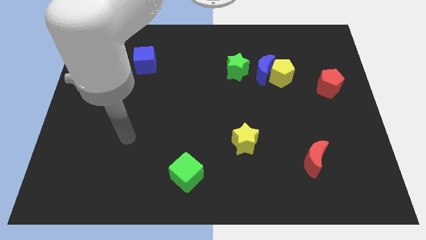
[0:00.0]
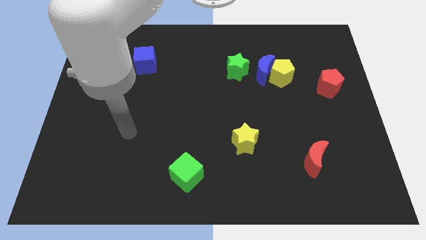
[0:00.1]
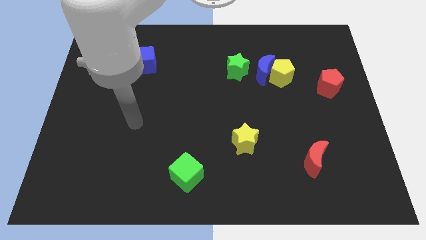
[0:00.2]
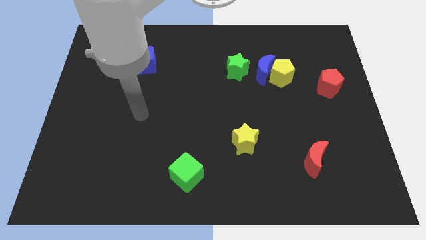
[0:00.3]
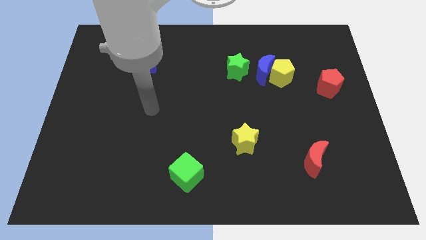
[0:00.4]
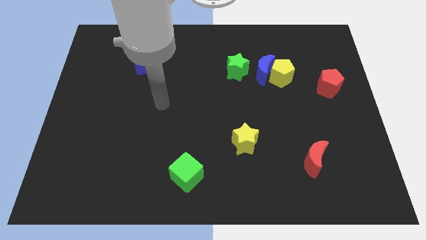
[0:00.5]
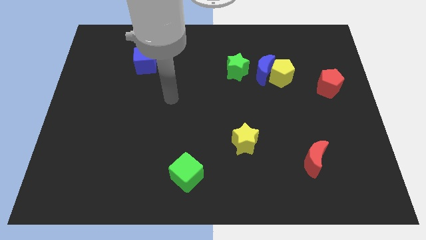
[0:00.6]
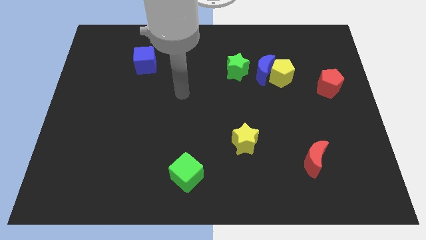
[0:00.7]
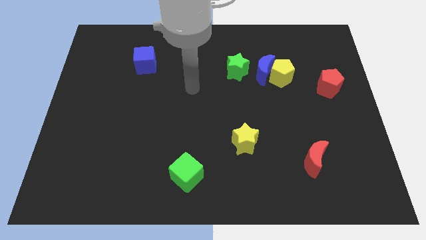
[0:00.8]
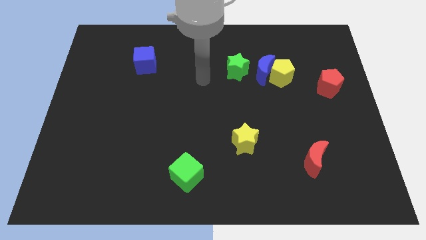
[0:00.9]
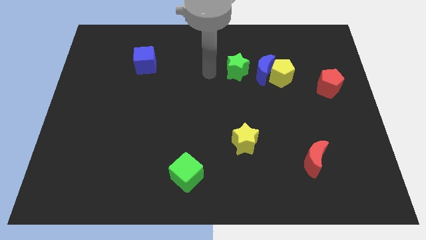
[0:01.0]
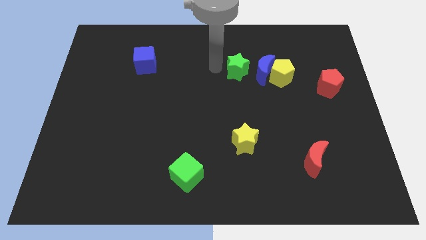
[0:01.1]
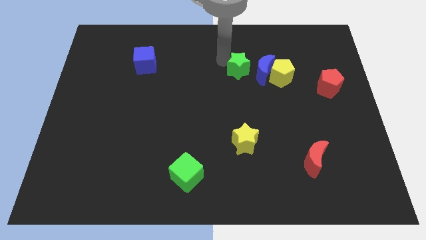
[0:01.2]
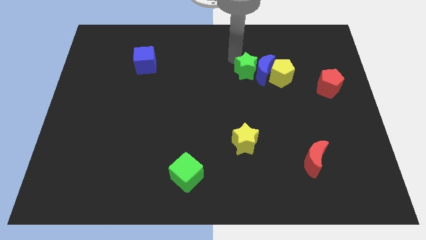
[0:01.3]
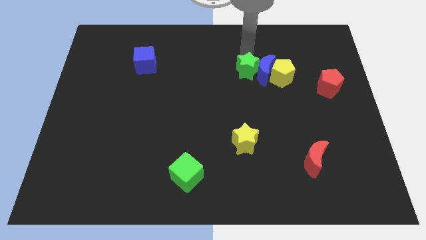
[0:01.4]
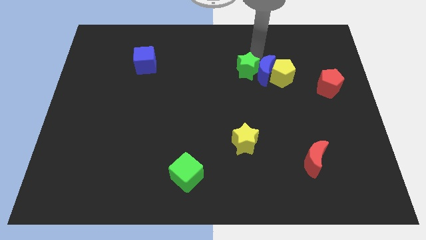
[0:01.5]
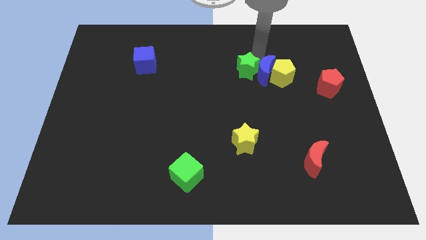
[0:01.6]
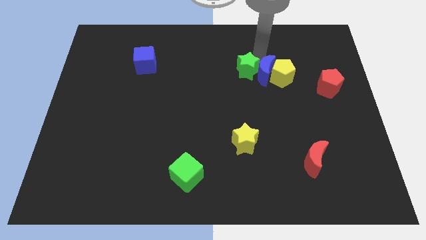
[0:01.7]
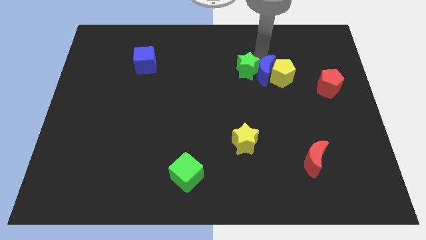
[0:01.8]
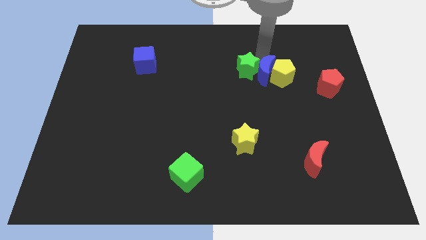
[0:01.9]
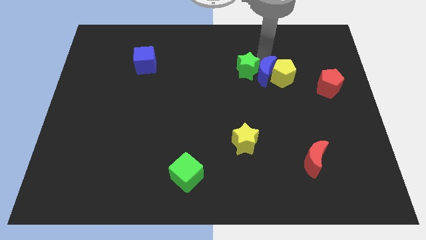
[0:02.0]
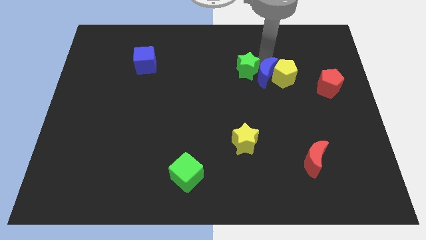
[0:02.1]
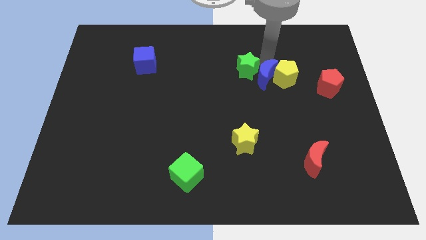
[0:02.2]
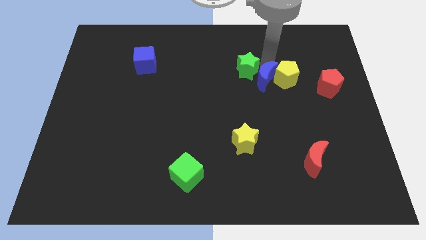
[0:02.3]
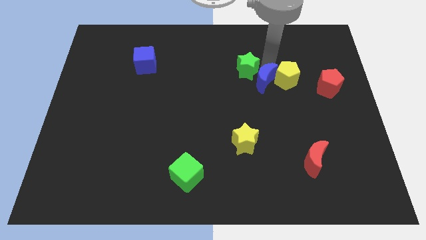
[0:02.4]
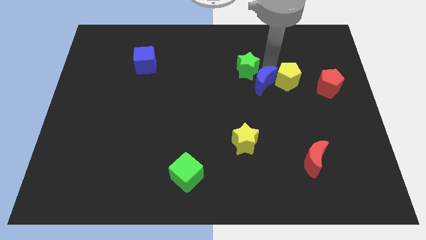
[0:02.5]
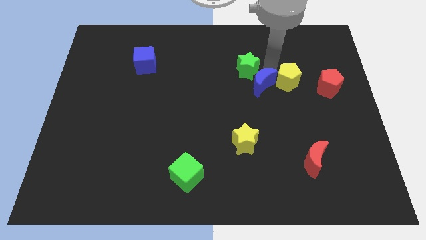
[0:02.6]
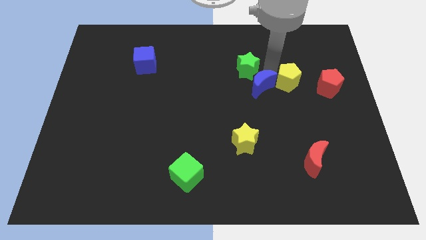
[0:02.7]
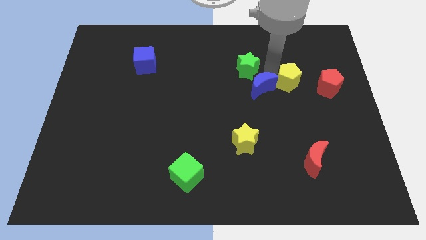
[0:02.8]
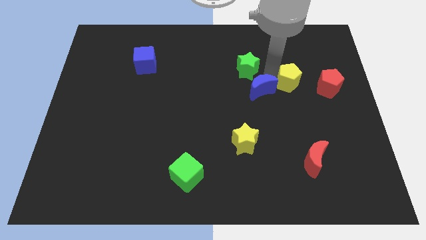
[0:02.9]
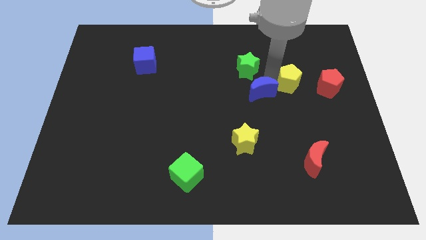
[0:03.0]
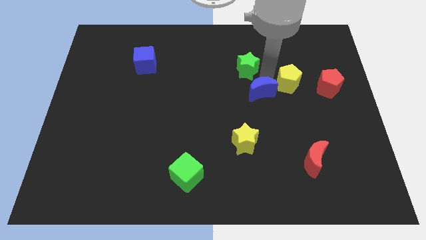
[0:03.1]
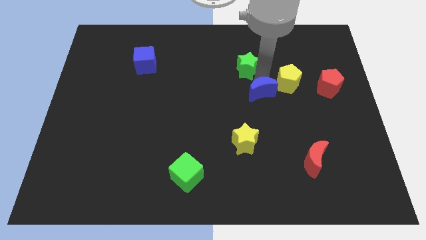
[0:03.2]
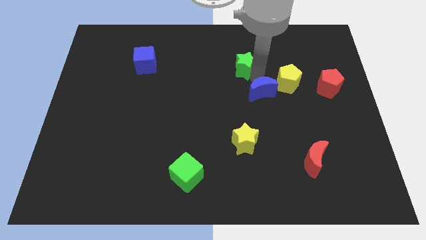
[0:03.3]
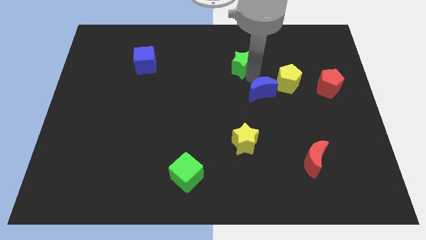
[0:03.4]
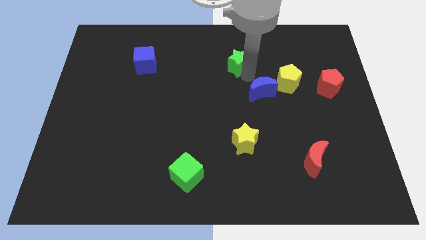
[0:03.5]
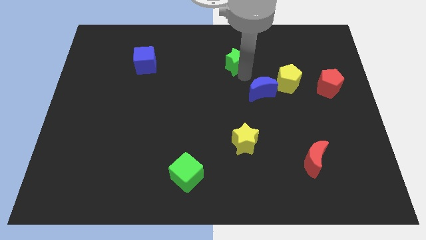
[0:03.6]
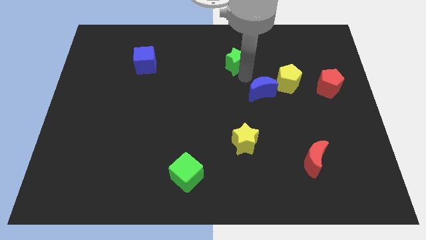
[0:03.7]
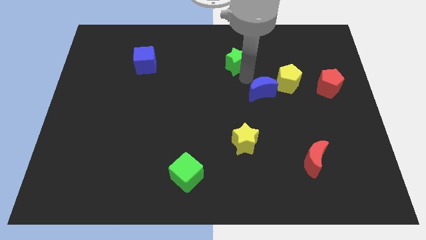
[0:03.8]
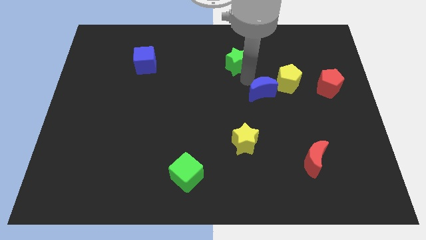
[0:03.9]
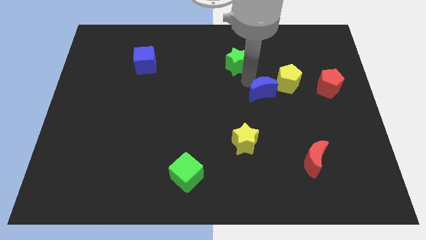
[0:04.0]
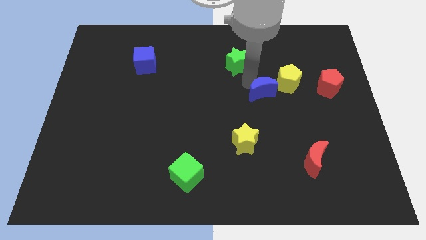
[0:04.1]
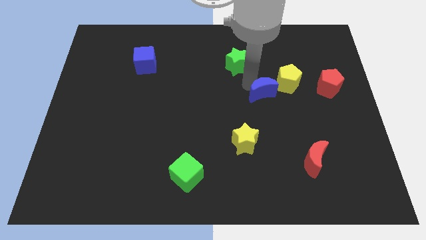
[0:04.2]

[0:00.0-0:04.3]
slightly move the blue moon downwards

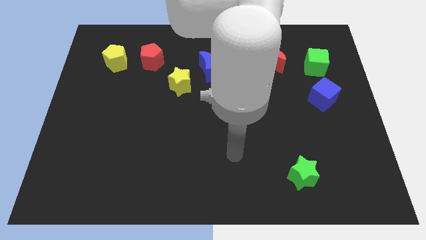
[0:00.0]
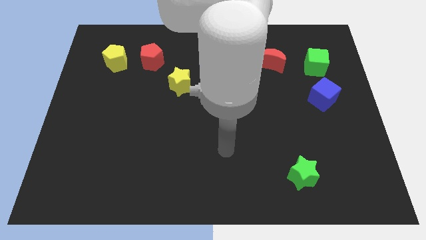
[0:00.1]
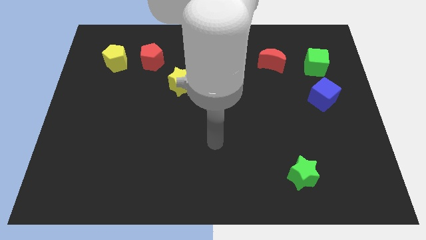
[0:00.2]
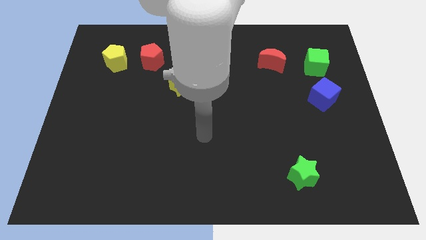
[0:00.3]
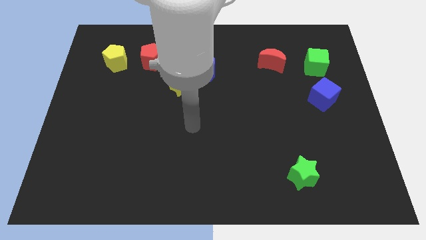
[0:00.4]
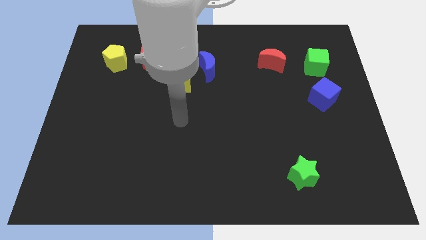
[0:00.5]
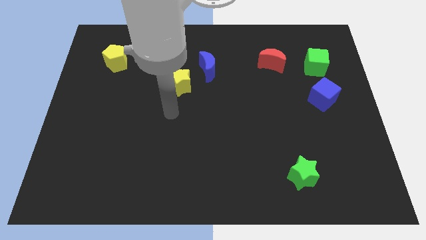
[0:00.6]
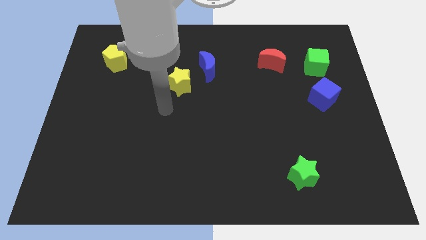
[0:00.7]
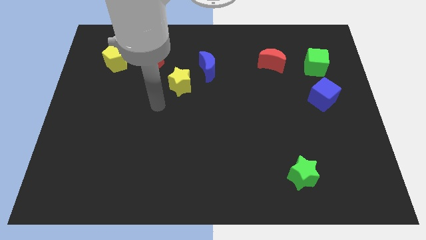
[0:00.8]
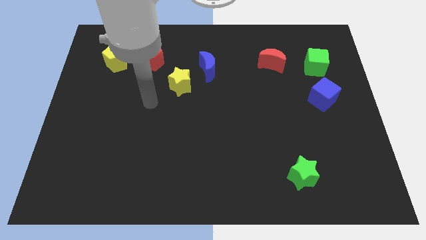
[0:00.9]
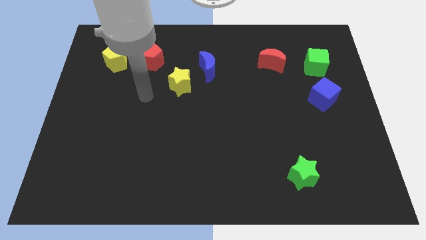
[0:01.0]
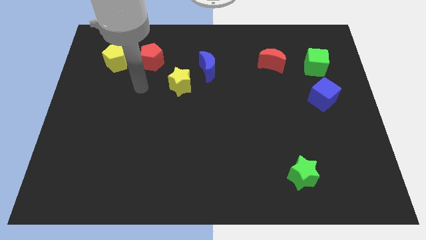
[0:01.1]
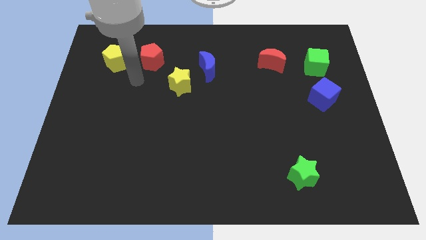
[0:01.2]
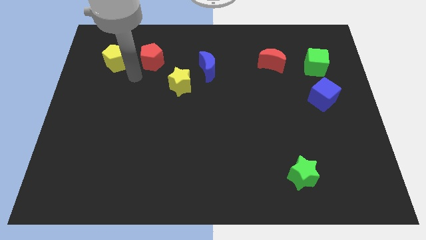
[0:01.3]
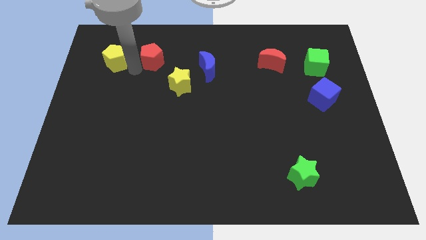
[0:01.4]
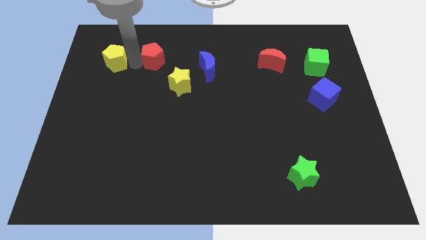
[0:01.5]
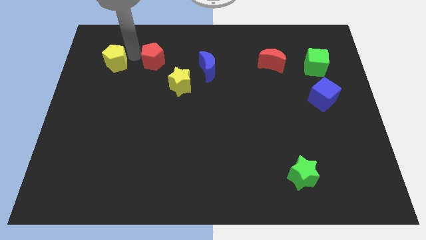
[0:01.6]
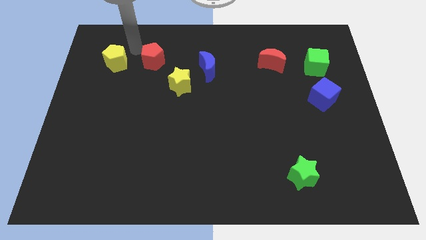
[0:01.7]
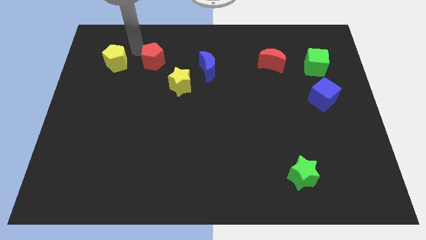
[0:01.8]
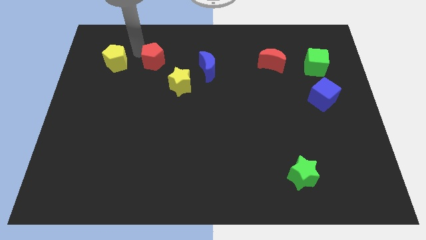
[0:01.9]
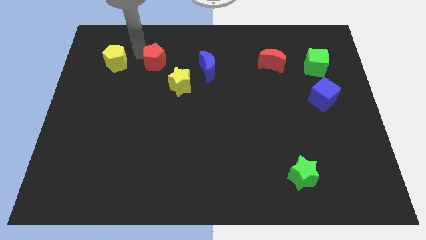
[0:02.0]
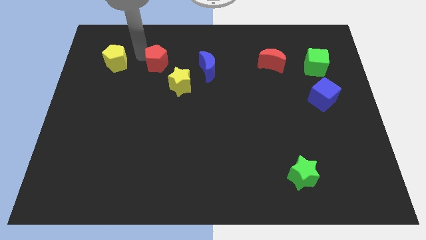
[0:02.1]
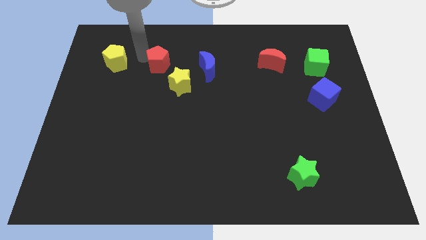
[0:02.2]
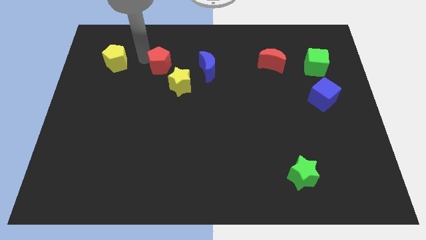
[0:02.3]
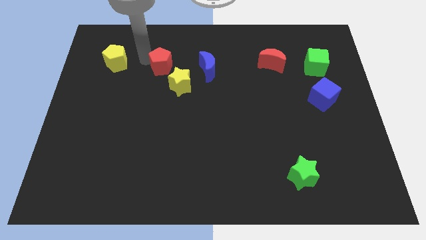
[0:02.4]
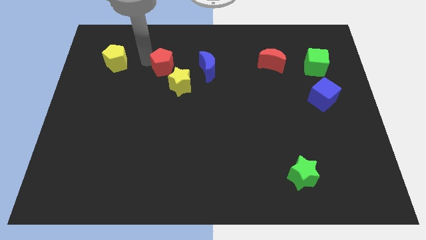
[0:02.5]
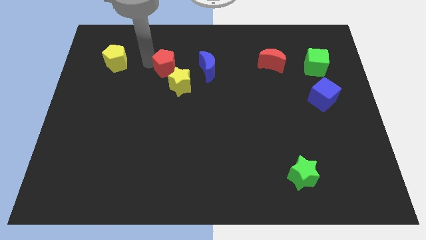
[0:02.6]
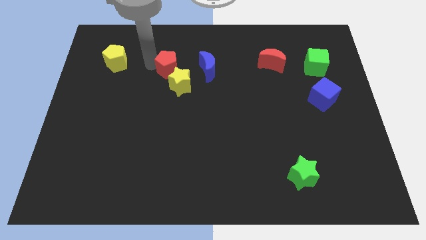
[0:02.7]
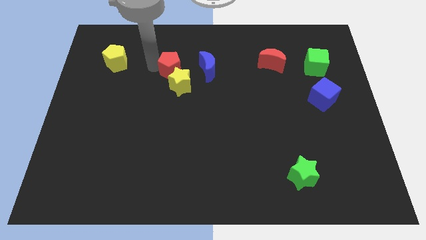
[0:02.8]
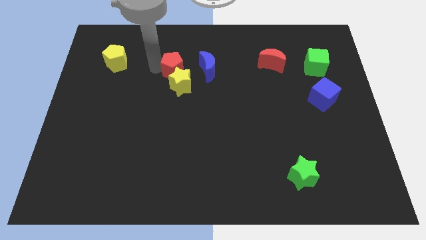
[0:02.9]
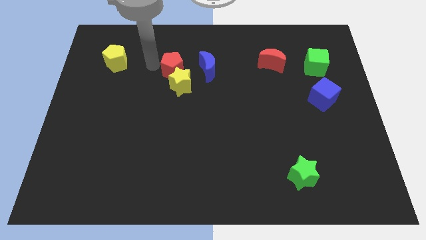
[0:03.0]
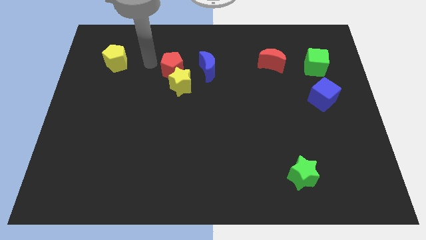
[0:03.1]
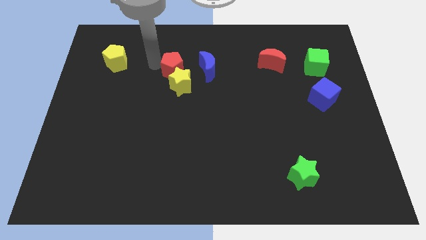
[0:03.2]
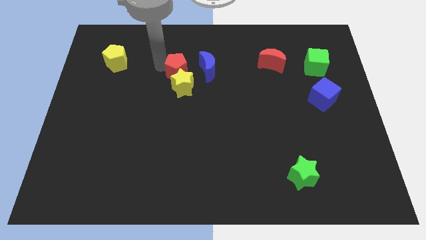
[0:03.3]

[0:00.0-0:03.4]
slide the red pentagon a bit down and to the right diagonally

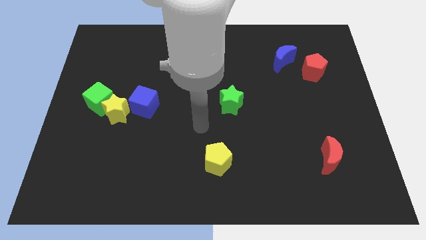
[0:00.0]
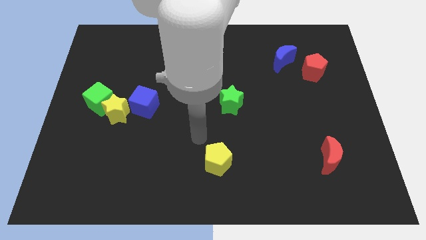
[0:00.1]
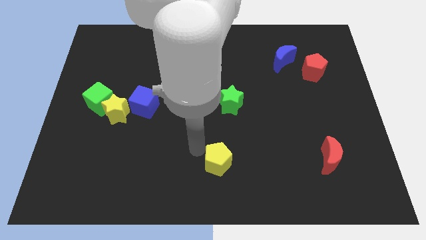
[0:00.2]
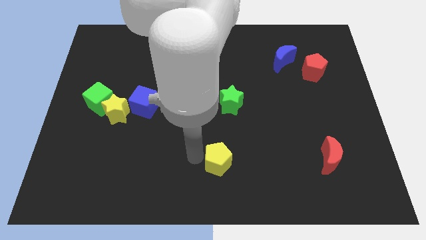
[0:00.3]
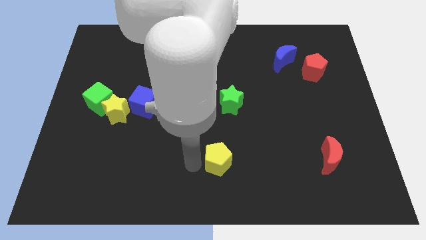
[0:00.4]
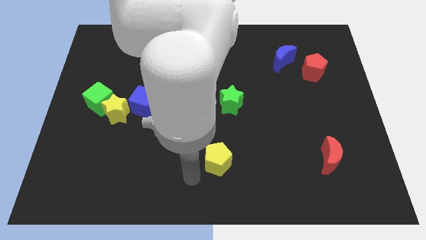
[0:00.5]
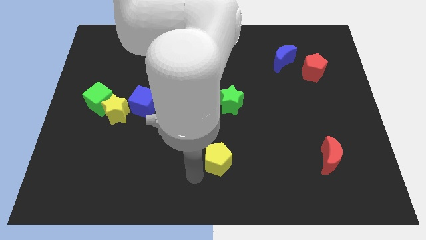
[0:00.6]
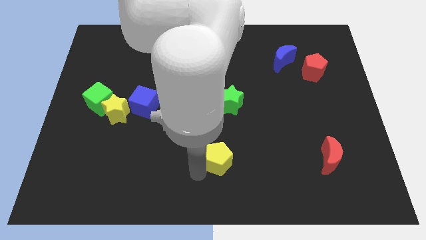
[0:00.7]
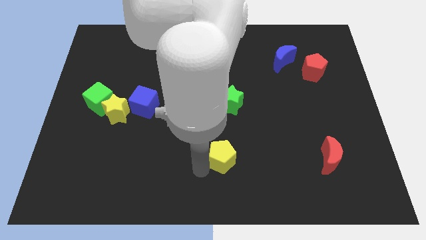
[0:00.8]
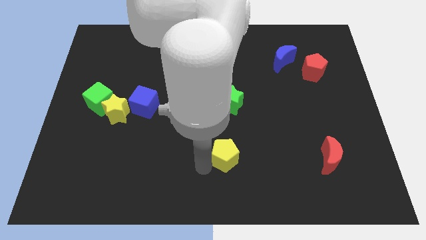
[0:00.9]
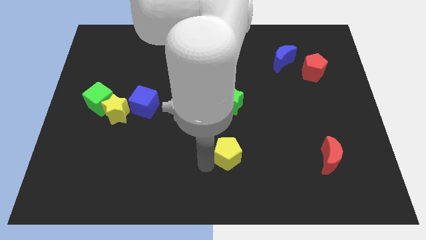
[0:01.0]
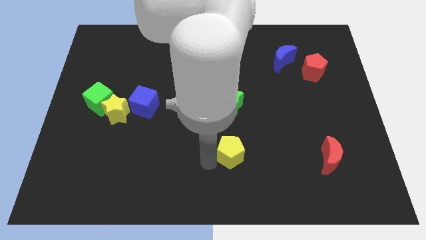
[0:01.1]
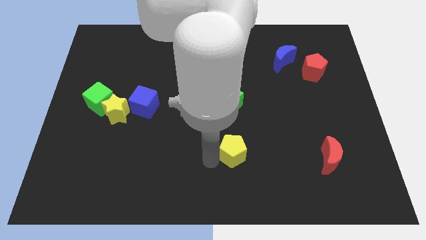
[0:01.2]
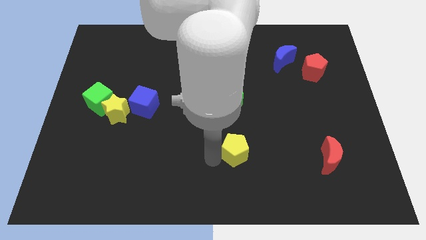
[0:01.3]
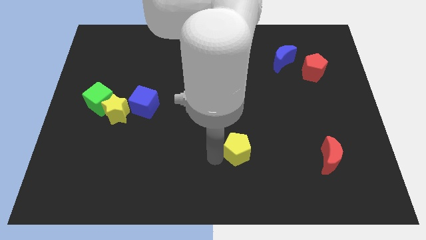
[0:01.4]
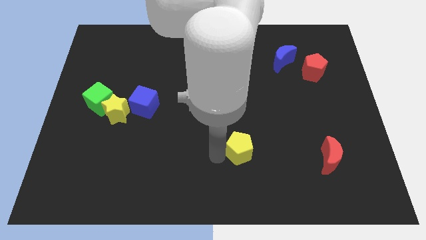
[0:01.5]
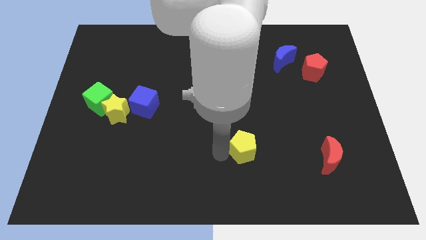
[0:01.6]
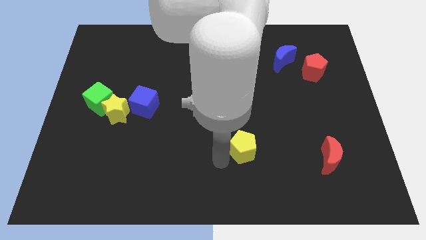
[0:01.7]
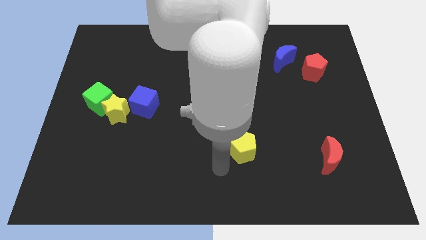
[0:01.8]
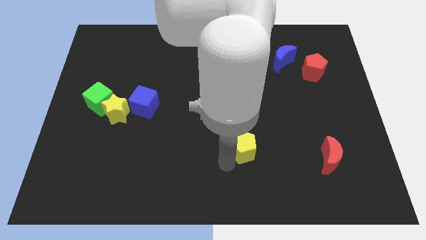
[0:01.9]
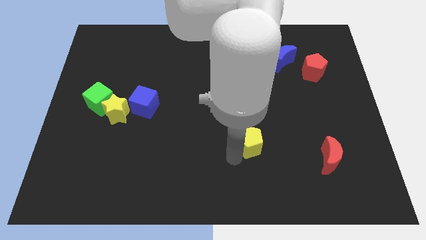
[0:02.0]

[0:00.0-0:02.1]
push the yellow pentagon upwards and right diagonally somewhat
